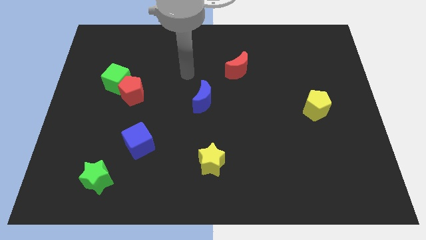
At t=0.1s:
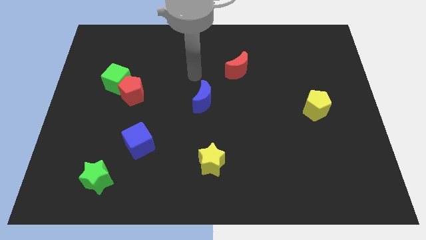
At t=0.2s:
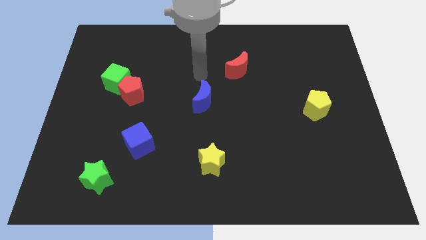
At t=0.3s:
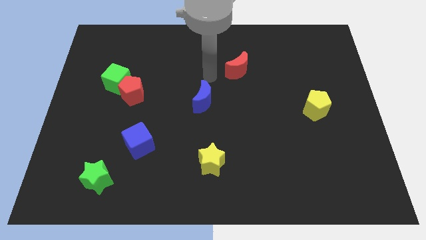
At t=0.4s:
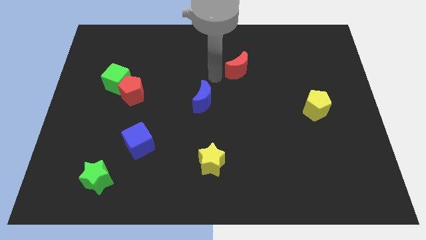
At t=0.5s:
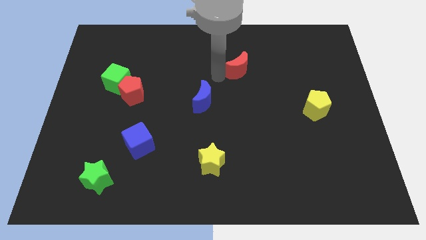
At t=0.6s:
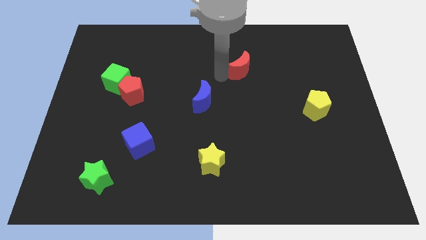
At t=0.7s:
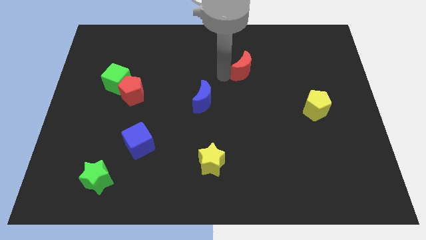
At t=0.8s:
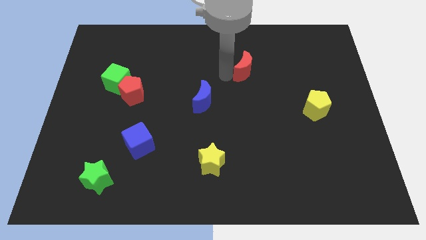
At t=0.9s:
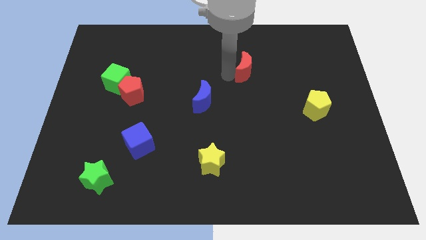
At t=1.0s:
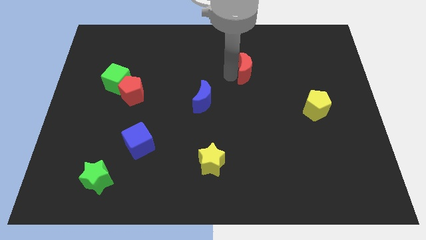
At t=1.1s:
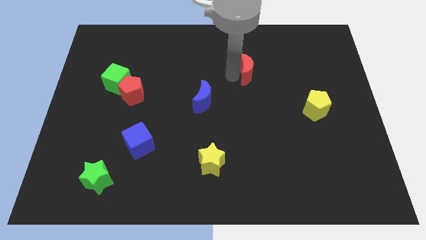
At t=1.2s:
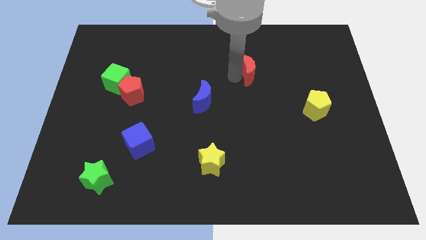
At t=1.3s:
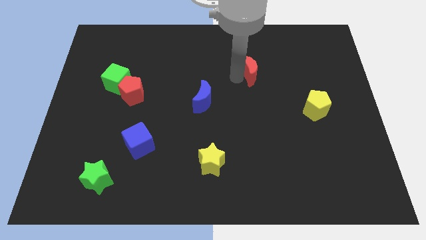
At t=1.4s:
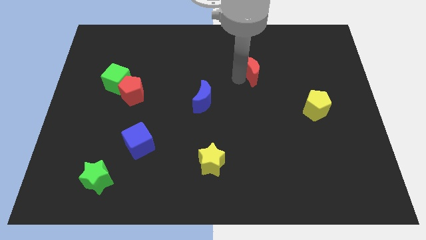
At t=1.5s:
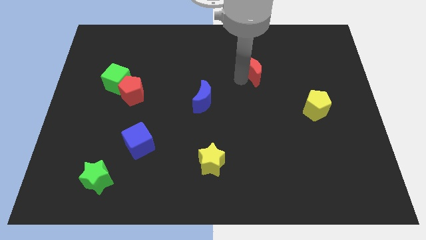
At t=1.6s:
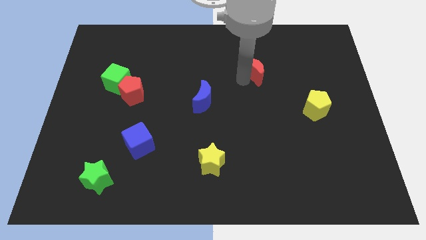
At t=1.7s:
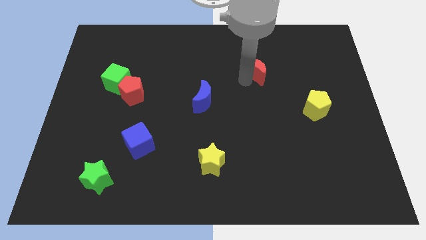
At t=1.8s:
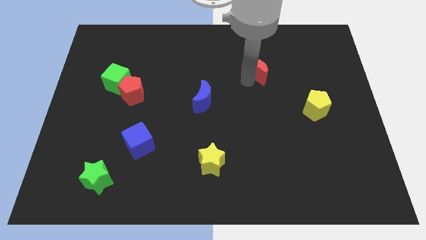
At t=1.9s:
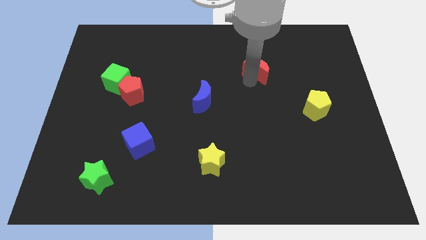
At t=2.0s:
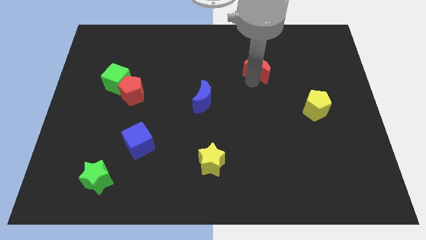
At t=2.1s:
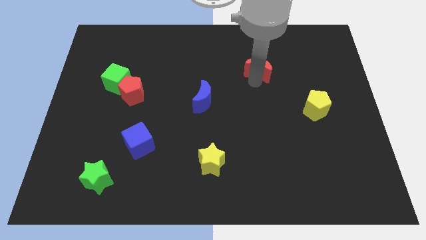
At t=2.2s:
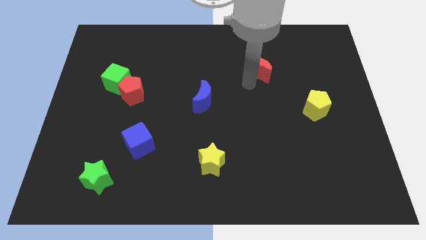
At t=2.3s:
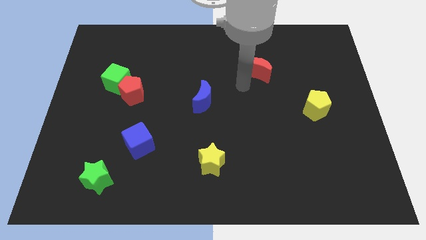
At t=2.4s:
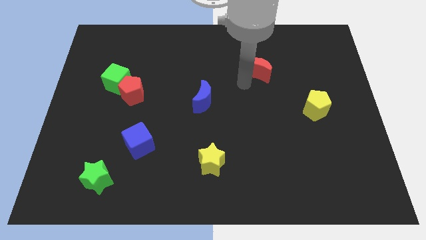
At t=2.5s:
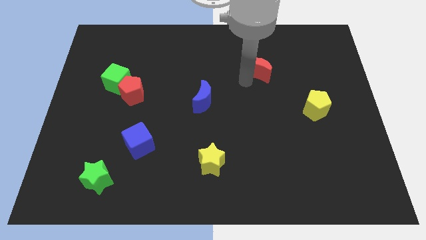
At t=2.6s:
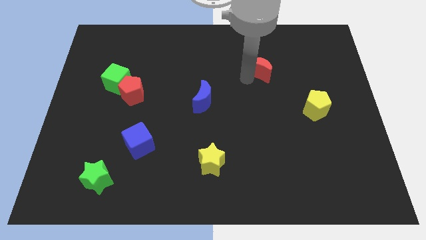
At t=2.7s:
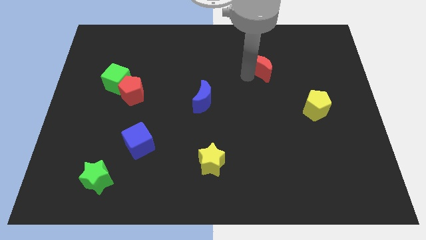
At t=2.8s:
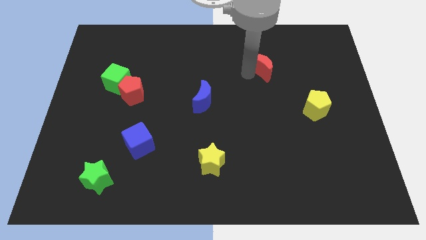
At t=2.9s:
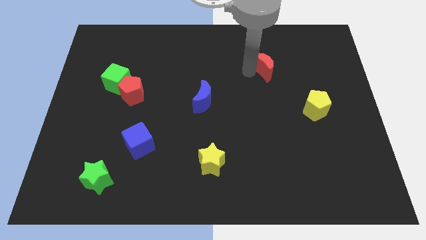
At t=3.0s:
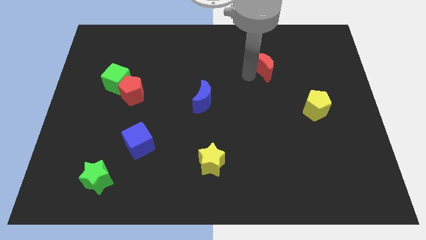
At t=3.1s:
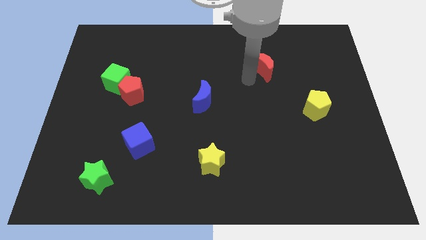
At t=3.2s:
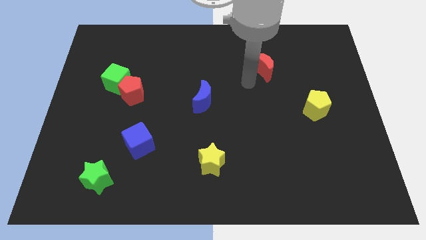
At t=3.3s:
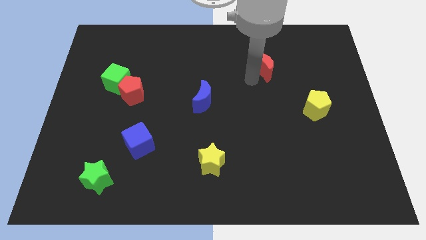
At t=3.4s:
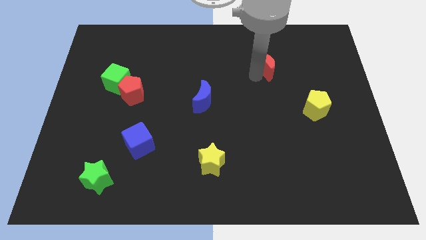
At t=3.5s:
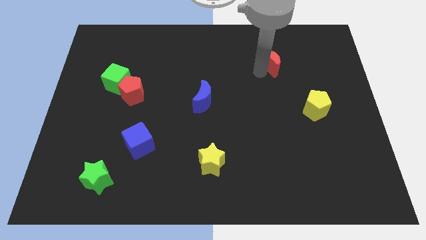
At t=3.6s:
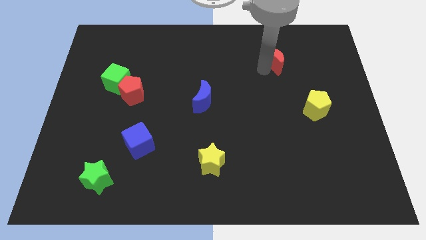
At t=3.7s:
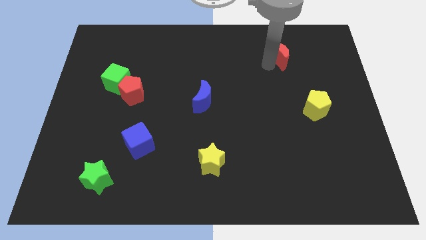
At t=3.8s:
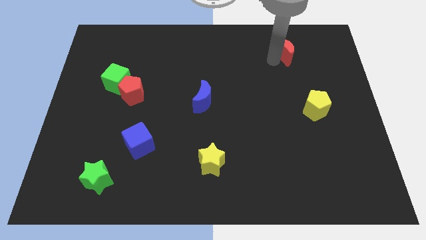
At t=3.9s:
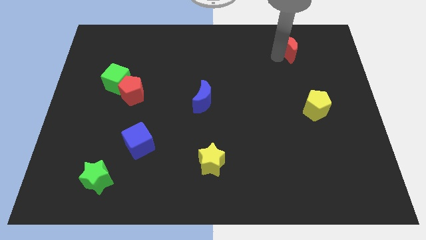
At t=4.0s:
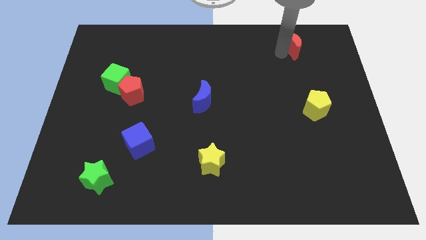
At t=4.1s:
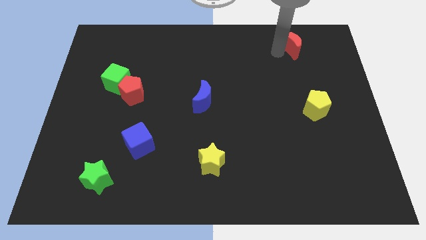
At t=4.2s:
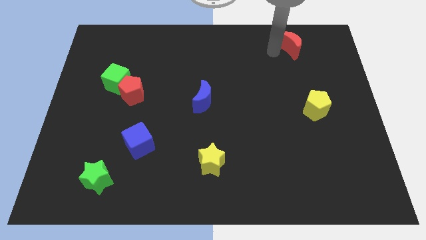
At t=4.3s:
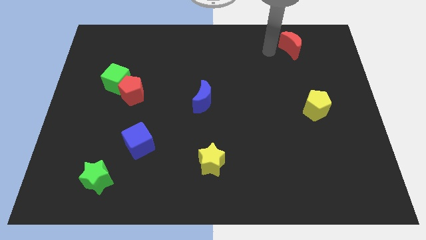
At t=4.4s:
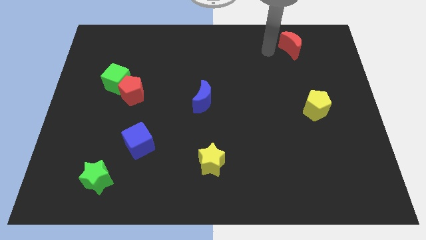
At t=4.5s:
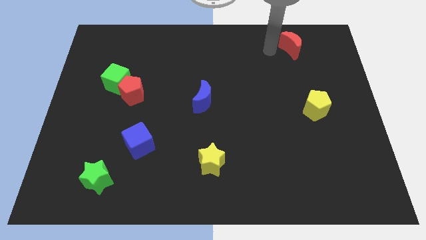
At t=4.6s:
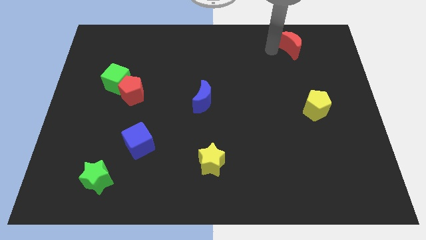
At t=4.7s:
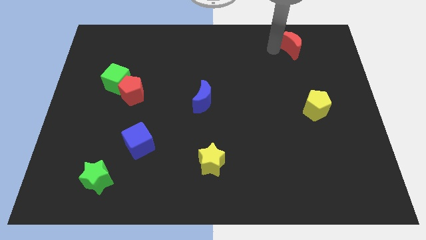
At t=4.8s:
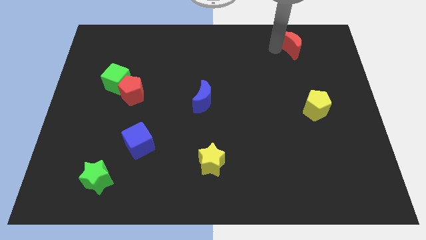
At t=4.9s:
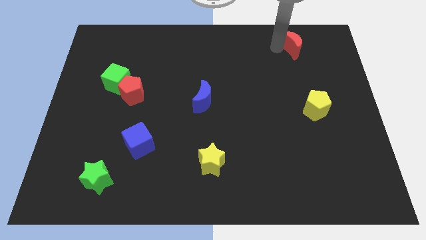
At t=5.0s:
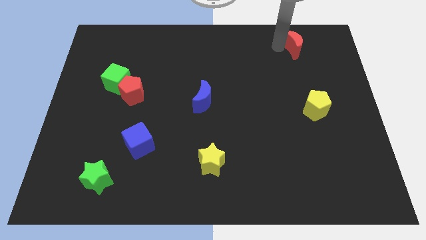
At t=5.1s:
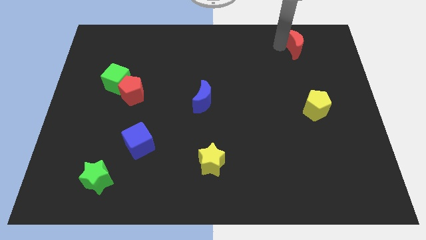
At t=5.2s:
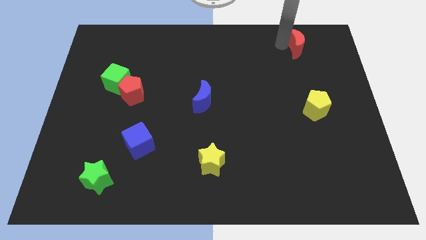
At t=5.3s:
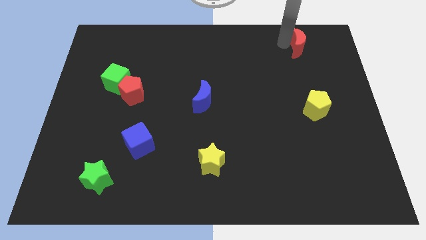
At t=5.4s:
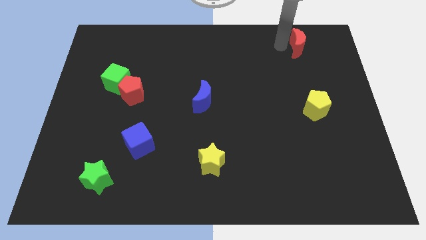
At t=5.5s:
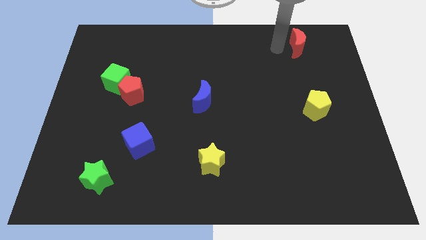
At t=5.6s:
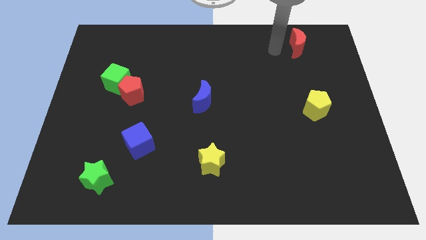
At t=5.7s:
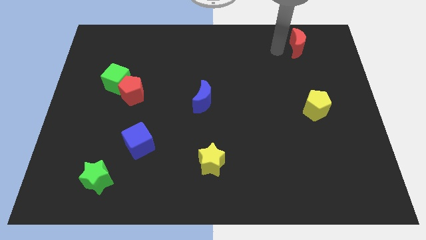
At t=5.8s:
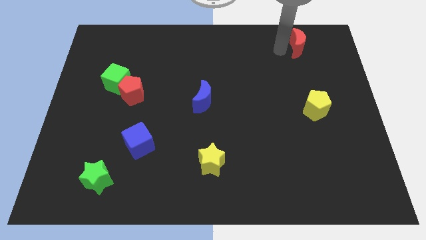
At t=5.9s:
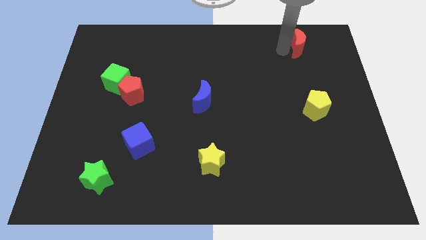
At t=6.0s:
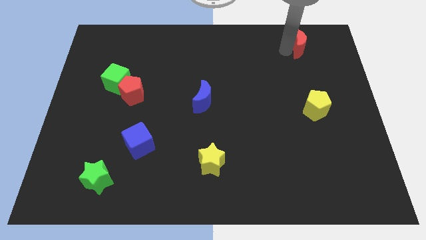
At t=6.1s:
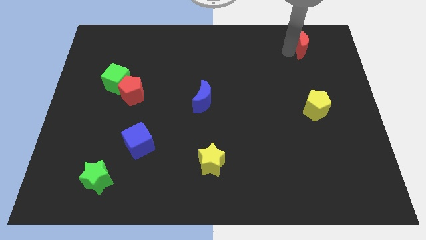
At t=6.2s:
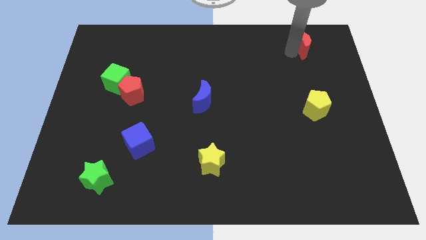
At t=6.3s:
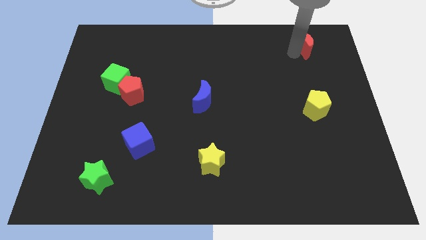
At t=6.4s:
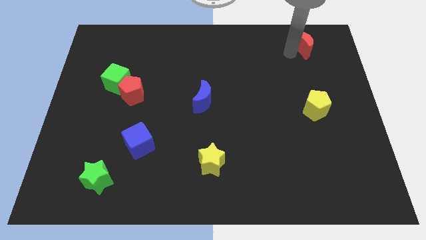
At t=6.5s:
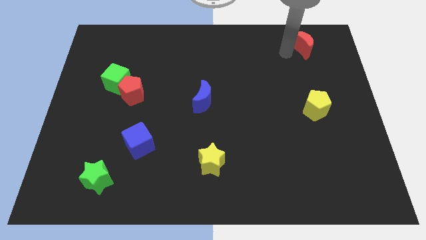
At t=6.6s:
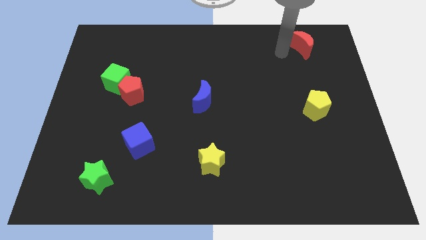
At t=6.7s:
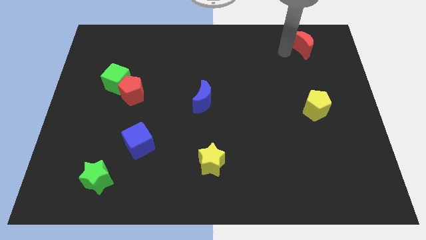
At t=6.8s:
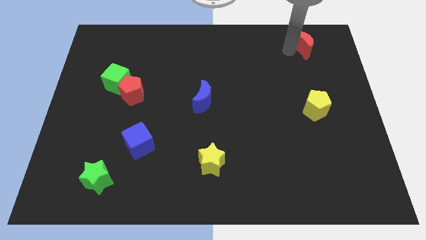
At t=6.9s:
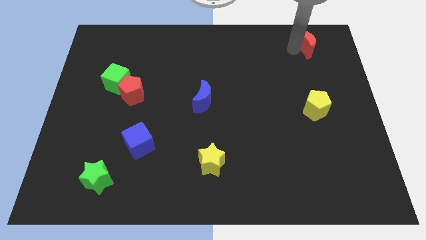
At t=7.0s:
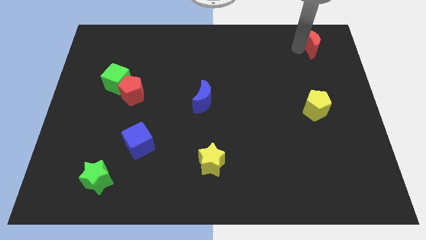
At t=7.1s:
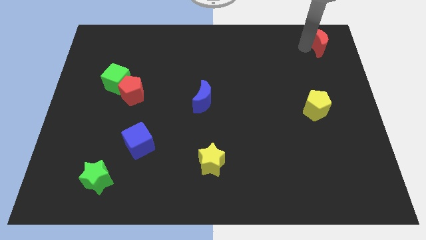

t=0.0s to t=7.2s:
move the red moon to the top right corner
